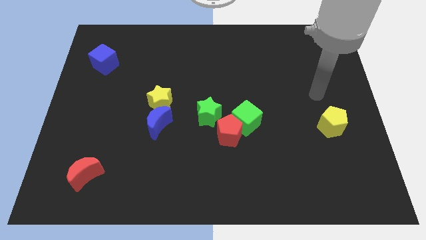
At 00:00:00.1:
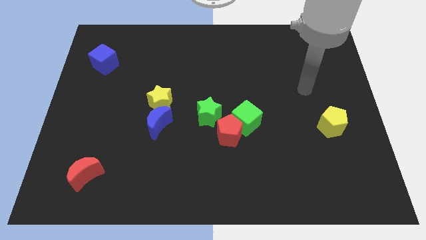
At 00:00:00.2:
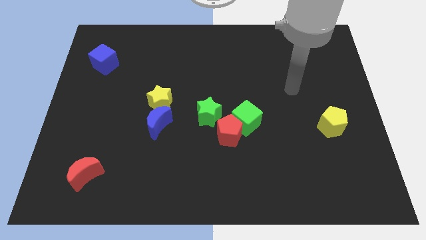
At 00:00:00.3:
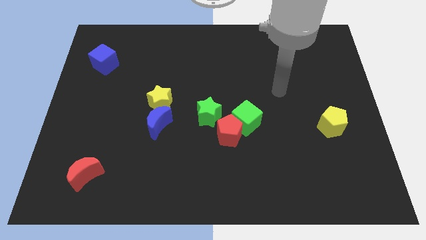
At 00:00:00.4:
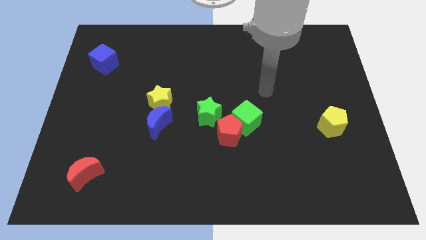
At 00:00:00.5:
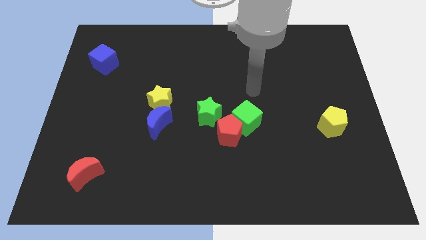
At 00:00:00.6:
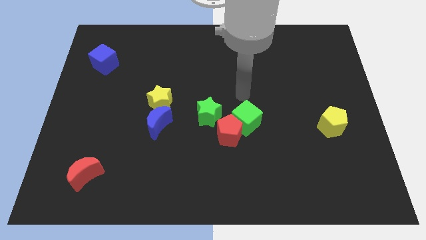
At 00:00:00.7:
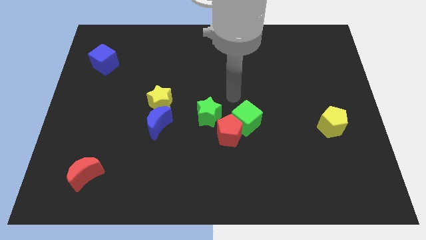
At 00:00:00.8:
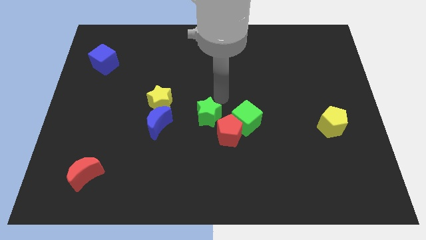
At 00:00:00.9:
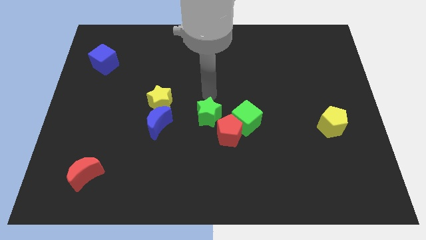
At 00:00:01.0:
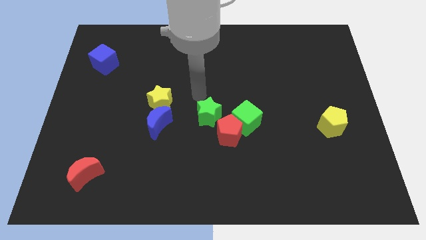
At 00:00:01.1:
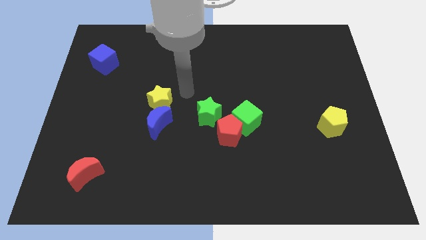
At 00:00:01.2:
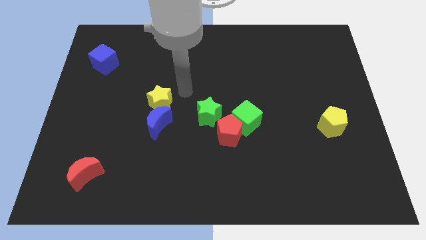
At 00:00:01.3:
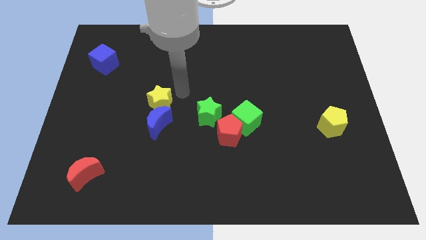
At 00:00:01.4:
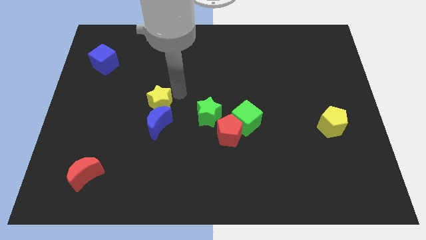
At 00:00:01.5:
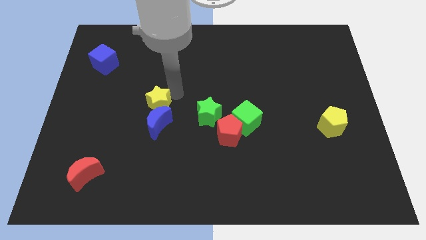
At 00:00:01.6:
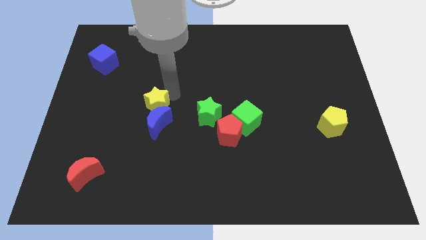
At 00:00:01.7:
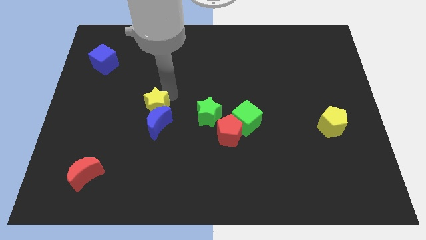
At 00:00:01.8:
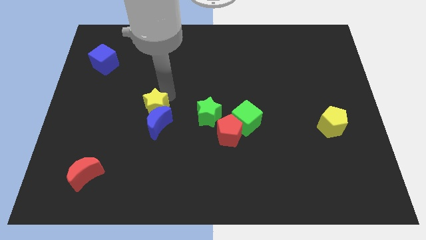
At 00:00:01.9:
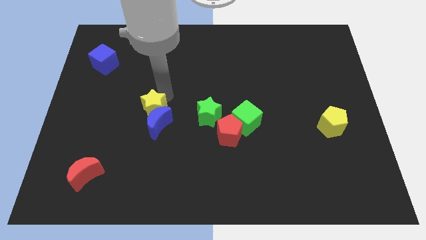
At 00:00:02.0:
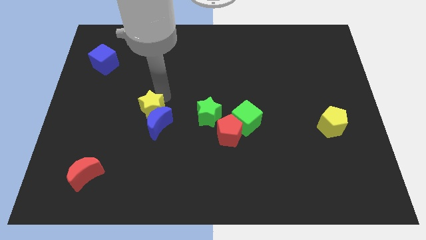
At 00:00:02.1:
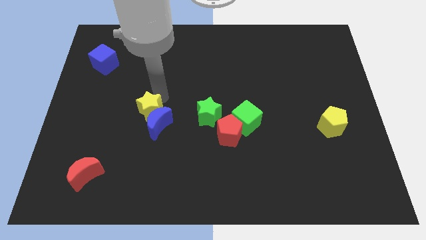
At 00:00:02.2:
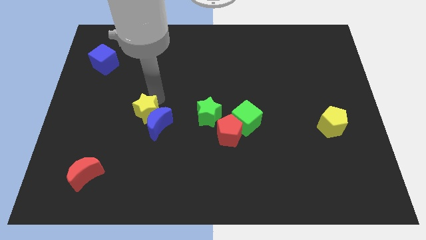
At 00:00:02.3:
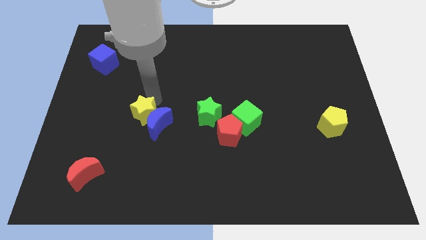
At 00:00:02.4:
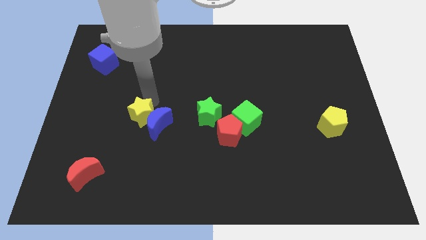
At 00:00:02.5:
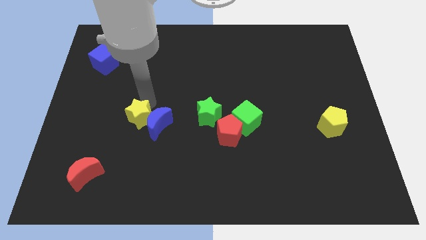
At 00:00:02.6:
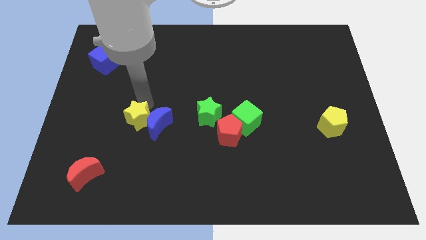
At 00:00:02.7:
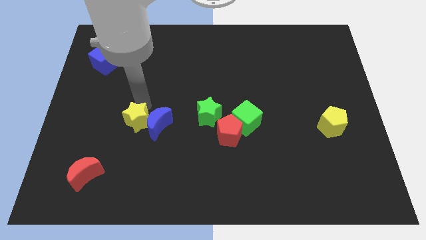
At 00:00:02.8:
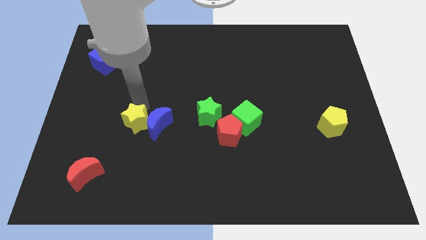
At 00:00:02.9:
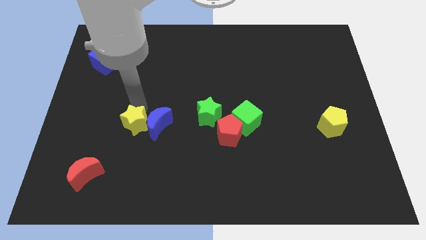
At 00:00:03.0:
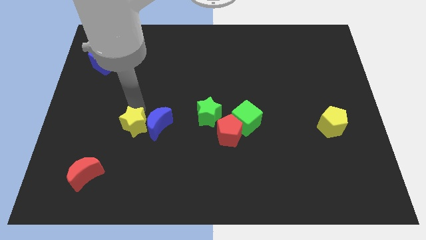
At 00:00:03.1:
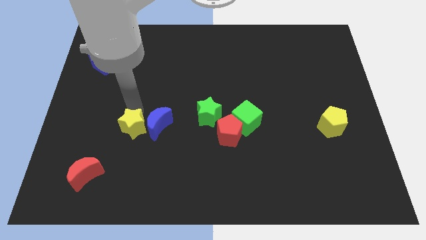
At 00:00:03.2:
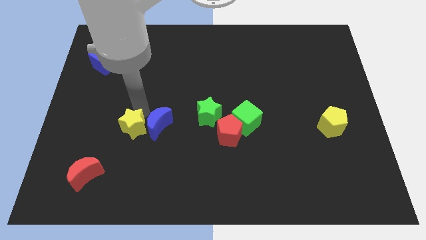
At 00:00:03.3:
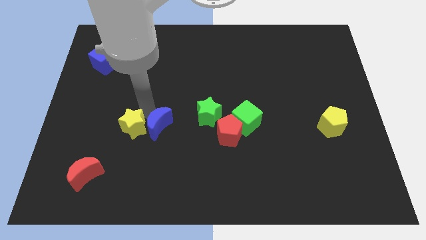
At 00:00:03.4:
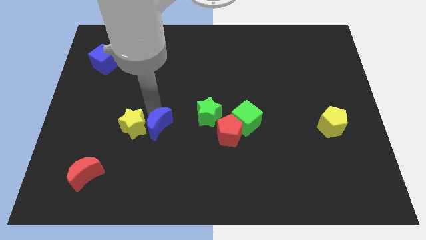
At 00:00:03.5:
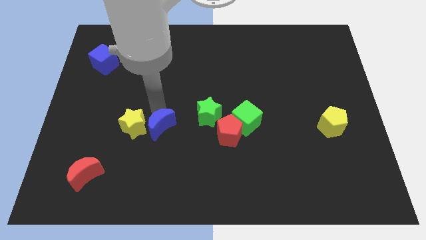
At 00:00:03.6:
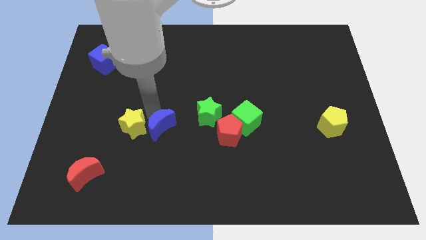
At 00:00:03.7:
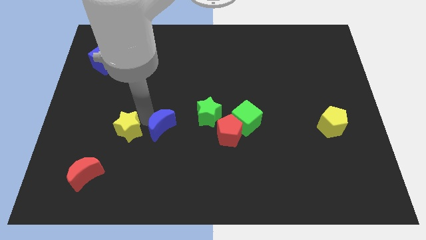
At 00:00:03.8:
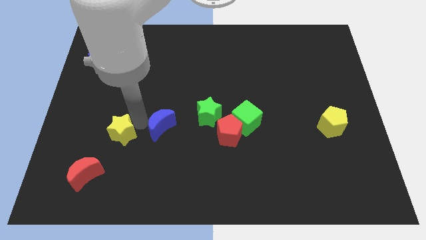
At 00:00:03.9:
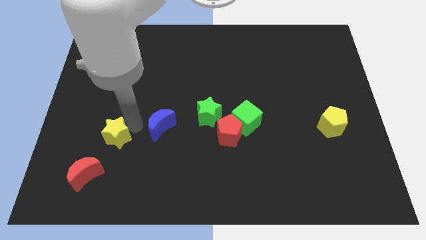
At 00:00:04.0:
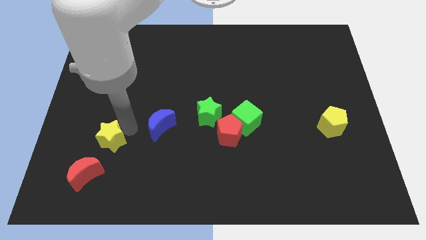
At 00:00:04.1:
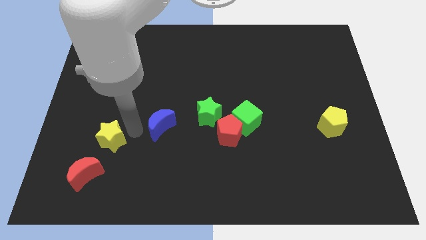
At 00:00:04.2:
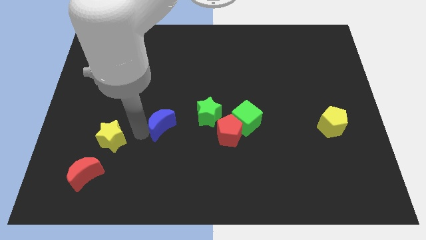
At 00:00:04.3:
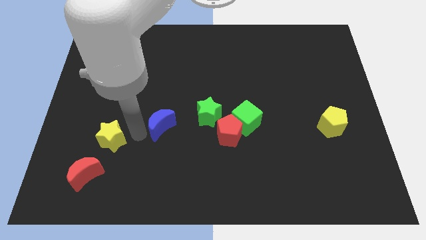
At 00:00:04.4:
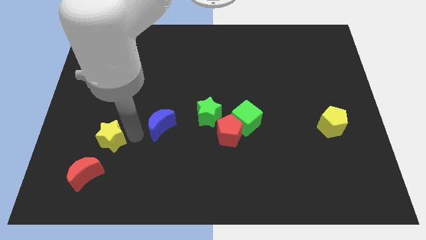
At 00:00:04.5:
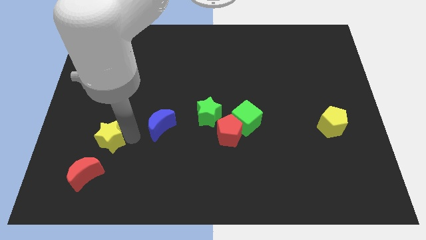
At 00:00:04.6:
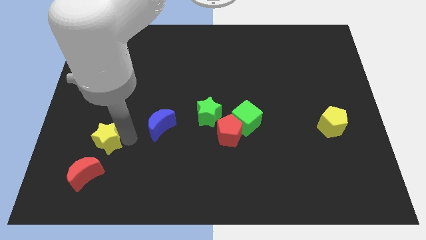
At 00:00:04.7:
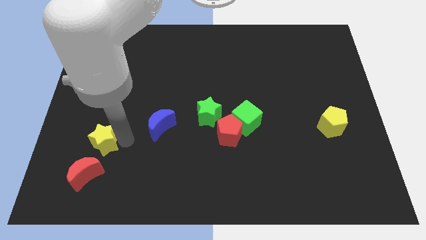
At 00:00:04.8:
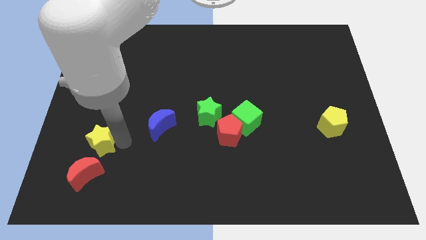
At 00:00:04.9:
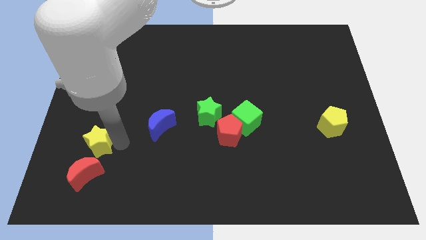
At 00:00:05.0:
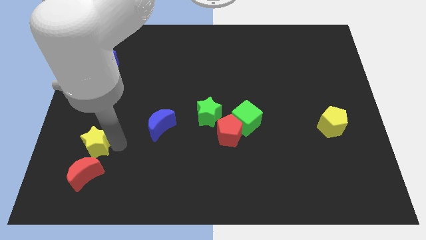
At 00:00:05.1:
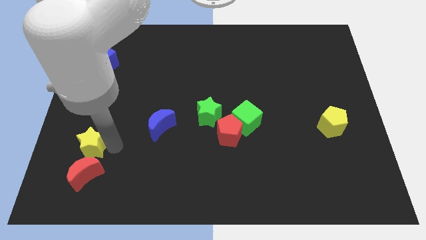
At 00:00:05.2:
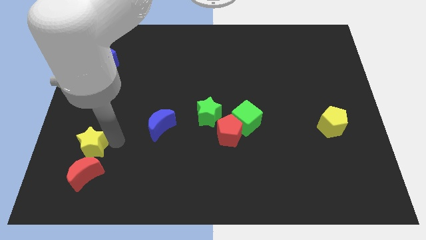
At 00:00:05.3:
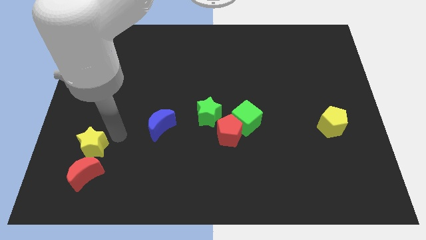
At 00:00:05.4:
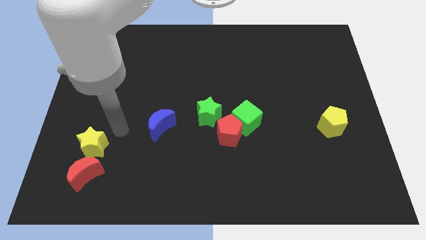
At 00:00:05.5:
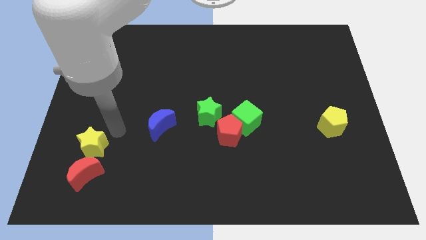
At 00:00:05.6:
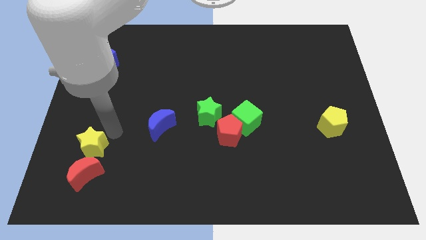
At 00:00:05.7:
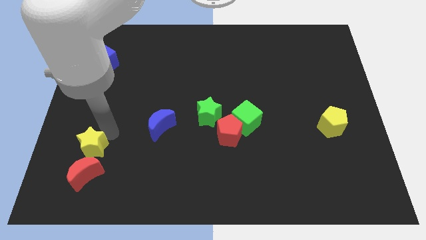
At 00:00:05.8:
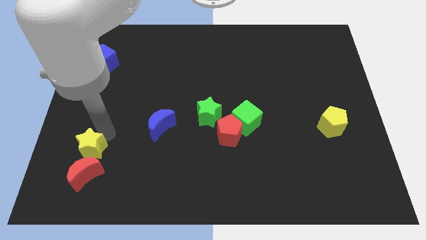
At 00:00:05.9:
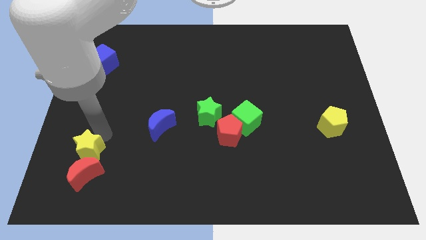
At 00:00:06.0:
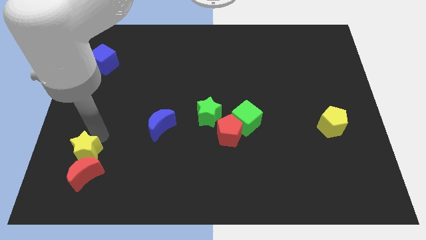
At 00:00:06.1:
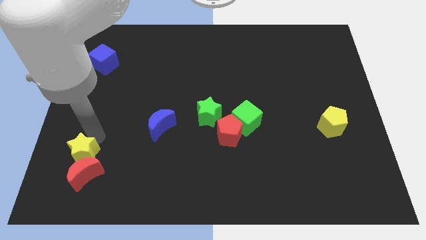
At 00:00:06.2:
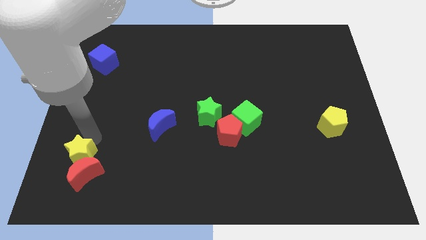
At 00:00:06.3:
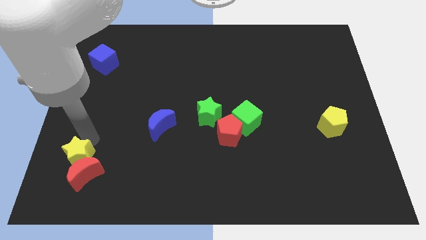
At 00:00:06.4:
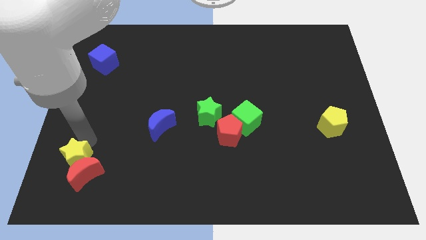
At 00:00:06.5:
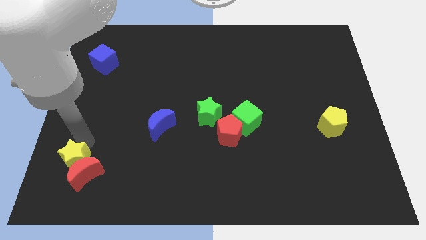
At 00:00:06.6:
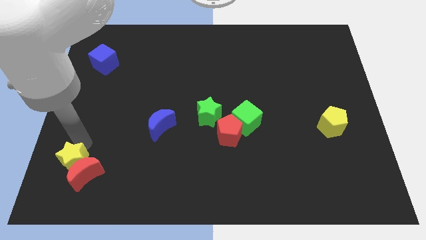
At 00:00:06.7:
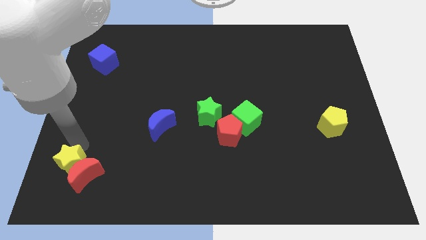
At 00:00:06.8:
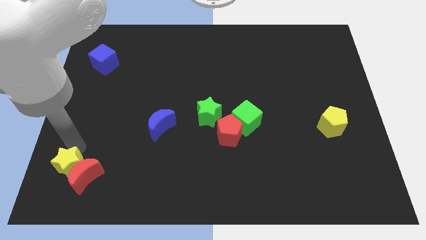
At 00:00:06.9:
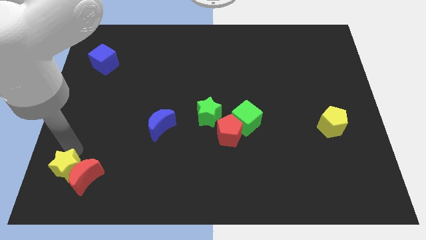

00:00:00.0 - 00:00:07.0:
slide the yellow star to the bottom left
